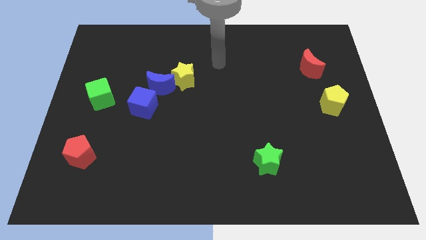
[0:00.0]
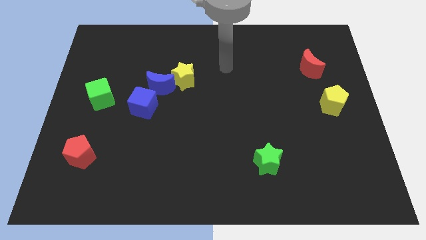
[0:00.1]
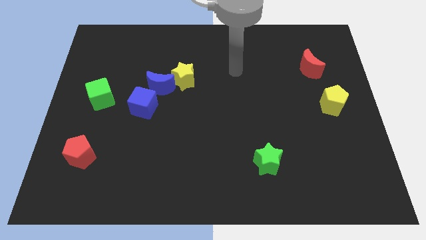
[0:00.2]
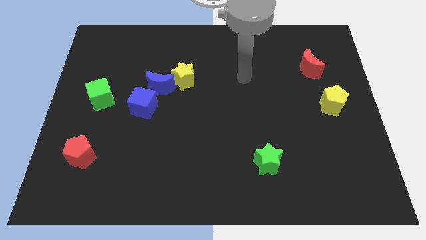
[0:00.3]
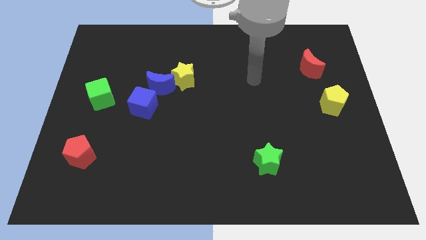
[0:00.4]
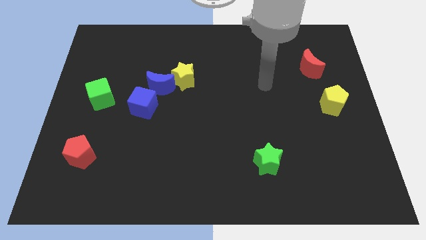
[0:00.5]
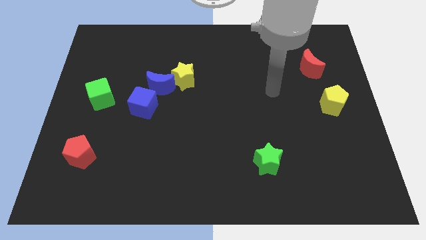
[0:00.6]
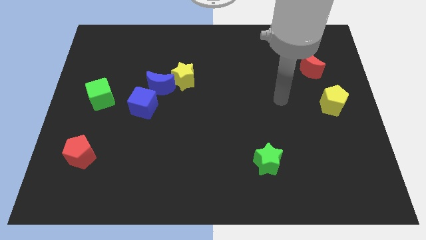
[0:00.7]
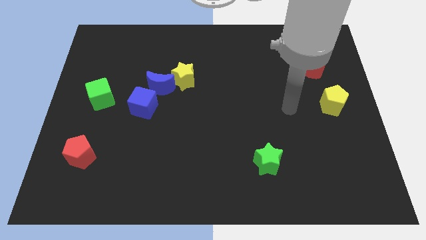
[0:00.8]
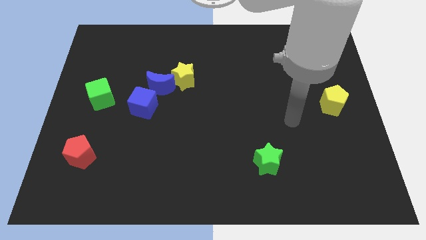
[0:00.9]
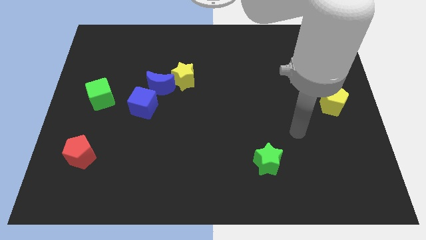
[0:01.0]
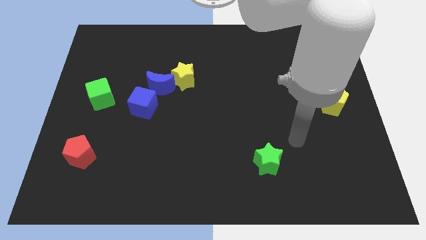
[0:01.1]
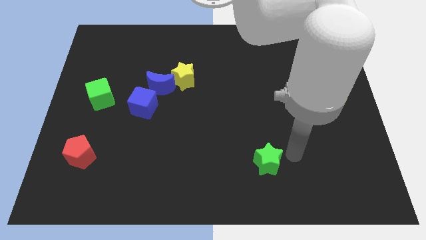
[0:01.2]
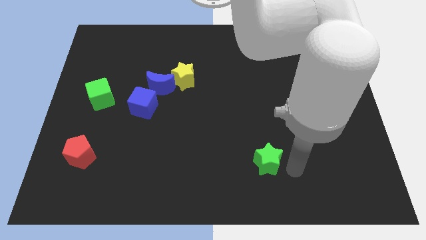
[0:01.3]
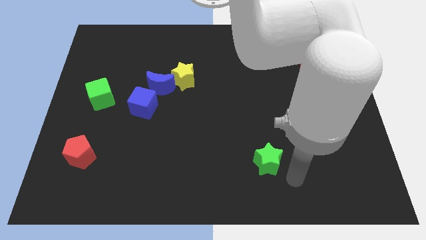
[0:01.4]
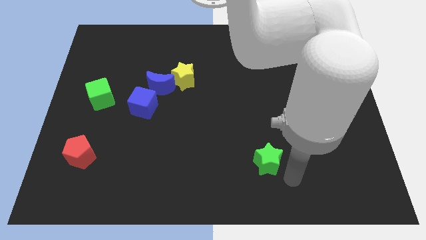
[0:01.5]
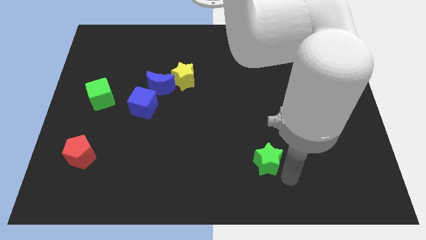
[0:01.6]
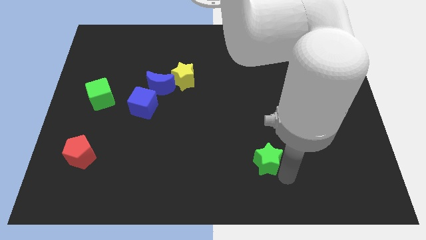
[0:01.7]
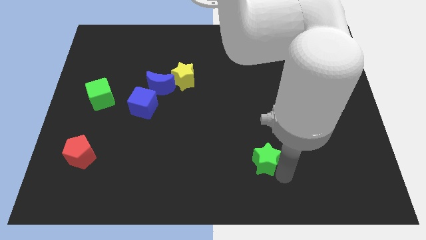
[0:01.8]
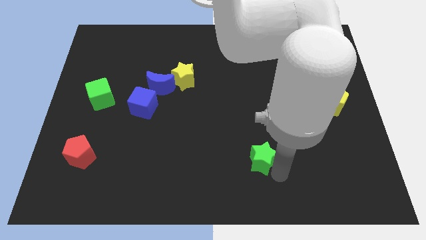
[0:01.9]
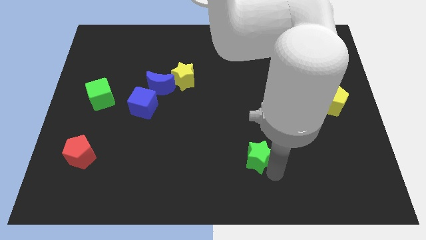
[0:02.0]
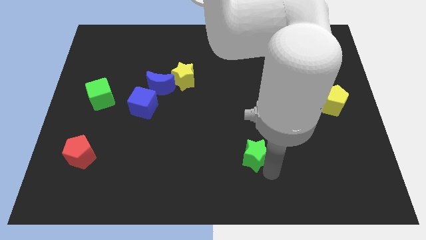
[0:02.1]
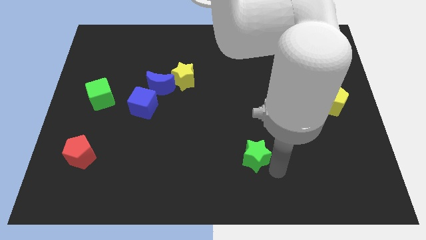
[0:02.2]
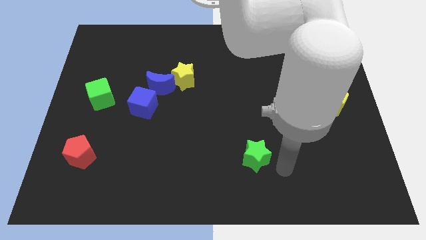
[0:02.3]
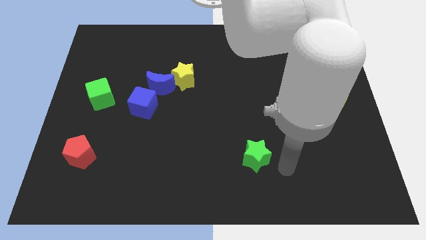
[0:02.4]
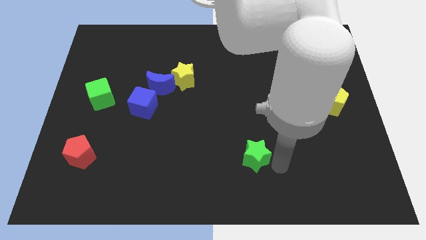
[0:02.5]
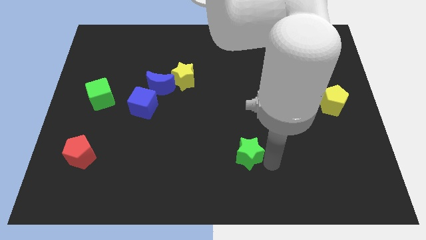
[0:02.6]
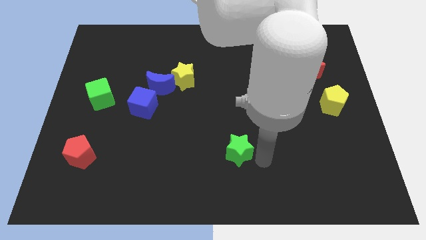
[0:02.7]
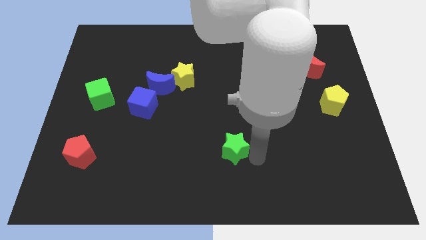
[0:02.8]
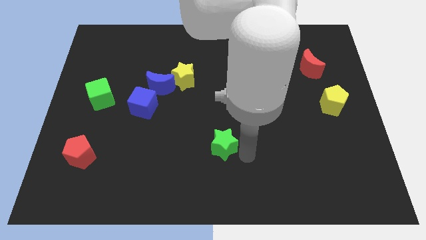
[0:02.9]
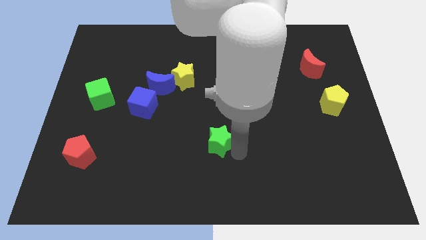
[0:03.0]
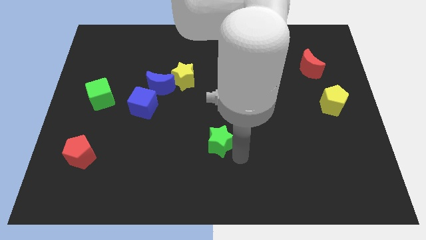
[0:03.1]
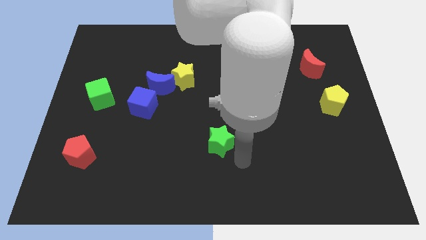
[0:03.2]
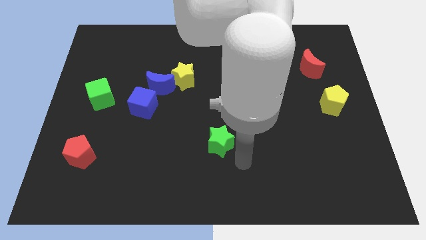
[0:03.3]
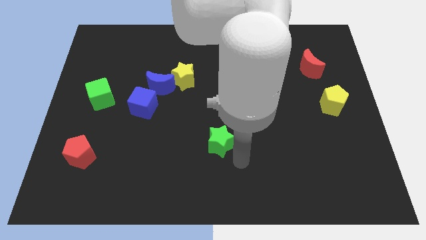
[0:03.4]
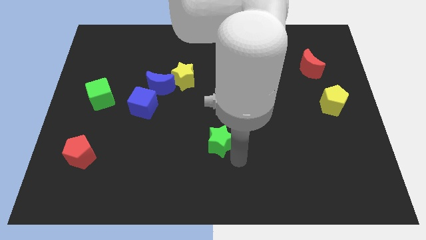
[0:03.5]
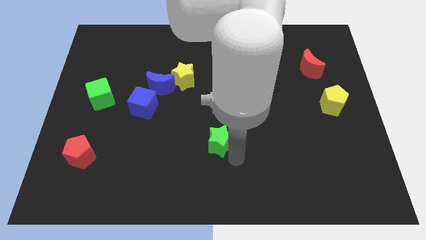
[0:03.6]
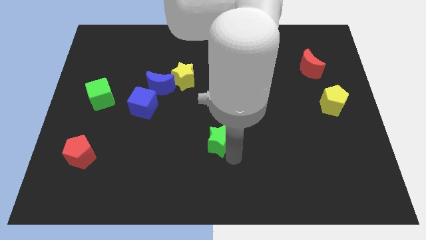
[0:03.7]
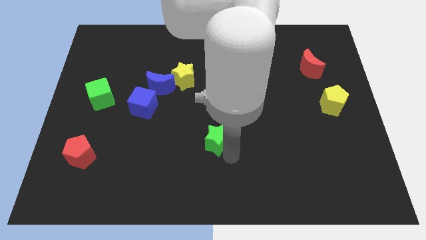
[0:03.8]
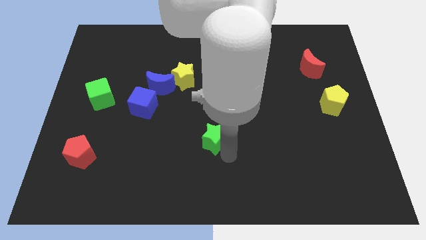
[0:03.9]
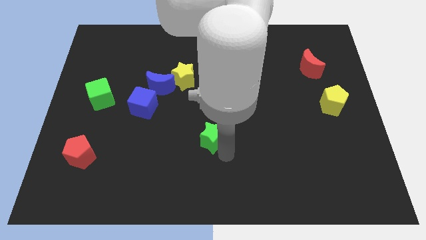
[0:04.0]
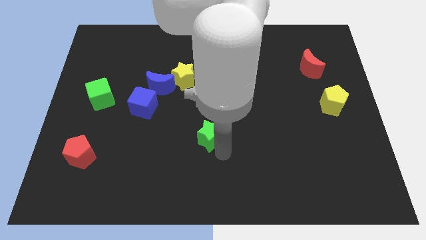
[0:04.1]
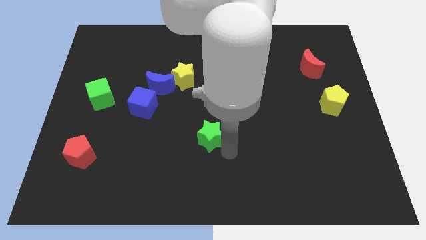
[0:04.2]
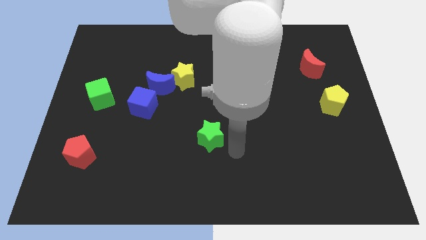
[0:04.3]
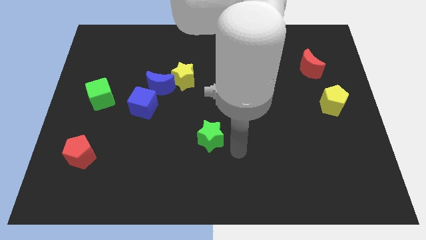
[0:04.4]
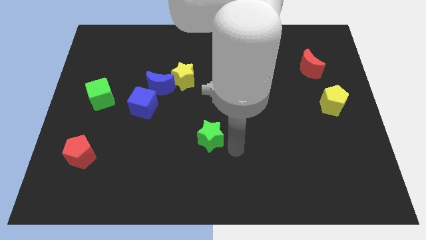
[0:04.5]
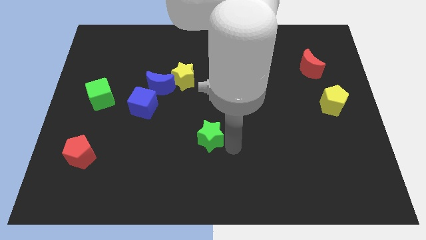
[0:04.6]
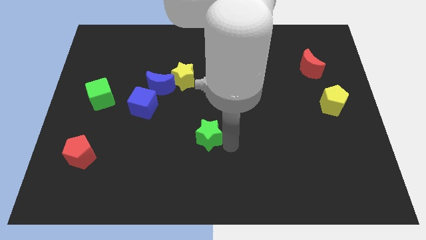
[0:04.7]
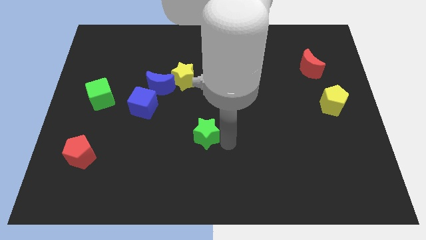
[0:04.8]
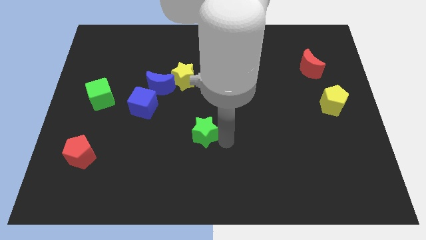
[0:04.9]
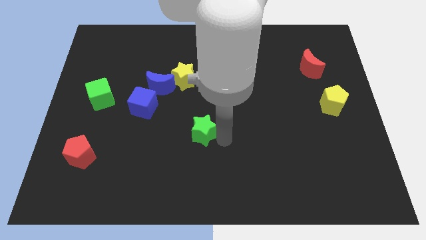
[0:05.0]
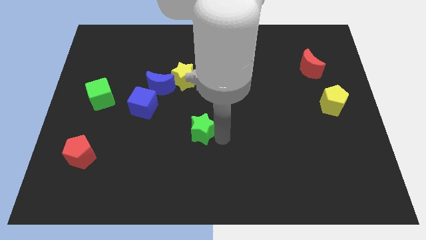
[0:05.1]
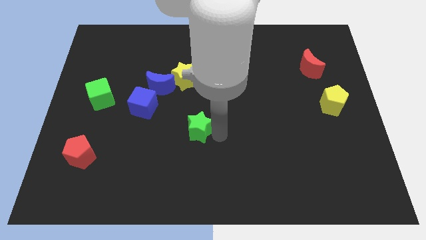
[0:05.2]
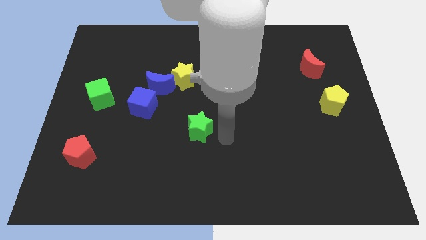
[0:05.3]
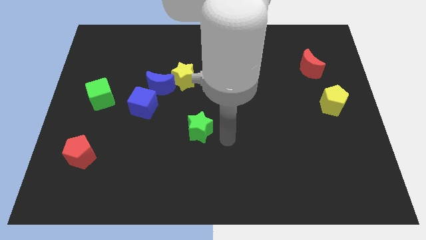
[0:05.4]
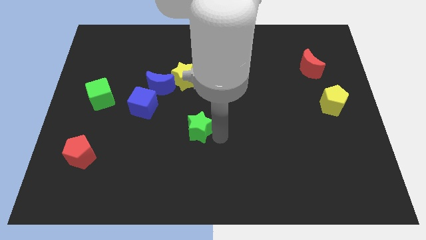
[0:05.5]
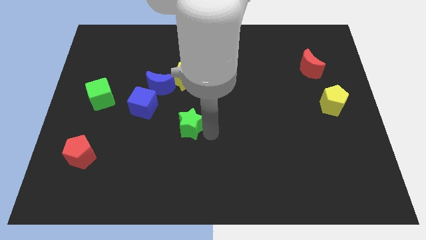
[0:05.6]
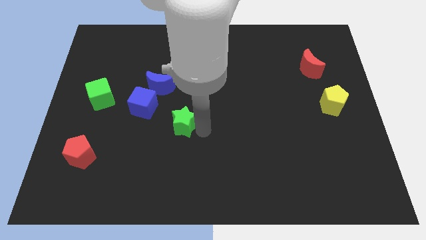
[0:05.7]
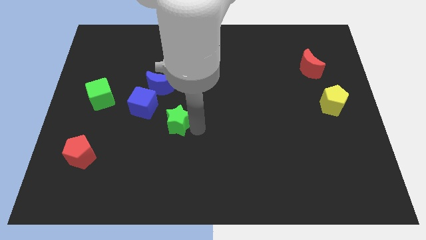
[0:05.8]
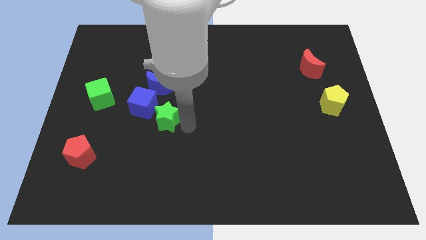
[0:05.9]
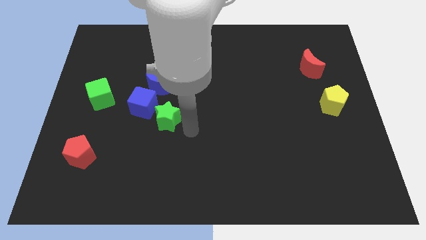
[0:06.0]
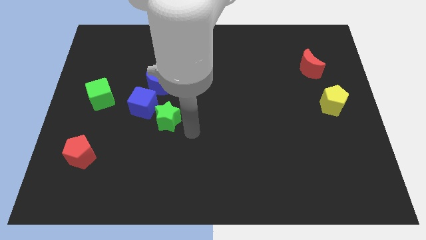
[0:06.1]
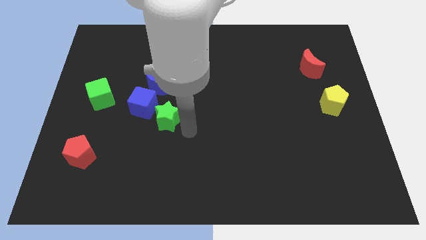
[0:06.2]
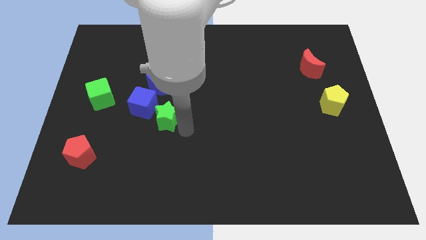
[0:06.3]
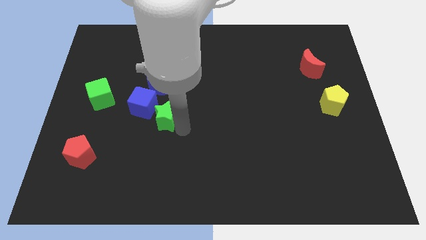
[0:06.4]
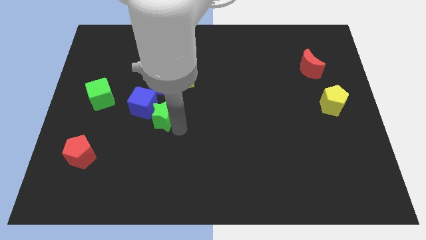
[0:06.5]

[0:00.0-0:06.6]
put the green star next to the blue cube

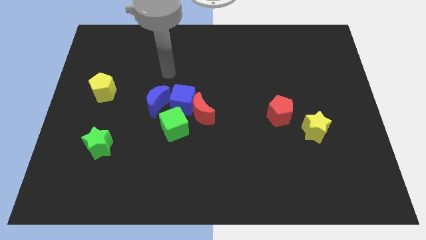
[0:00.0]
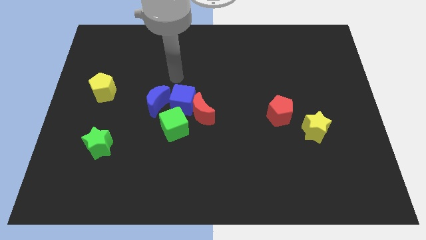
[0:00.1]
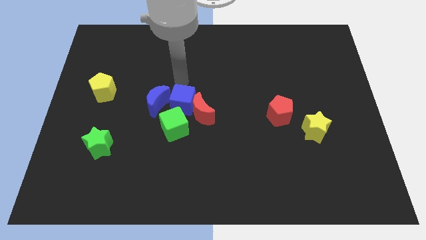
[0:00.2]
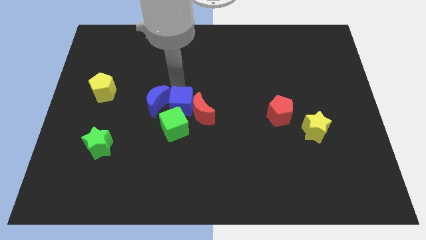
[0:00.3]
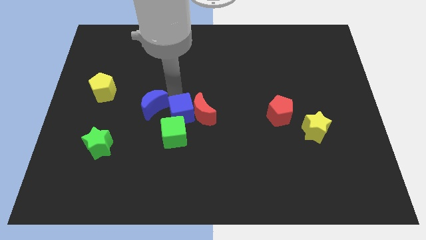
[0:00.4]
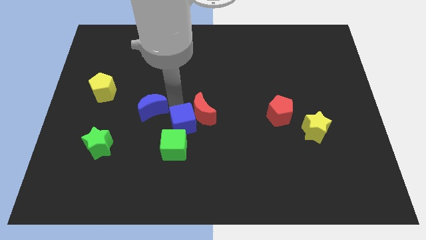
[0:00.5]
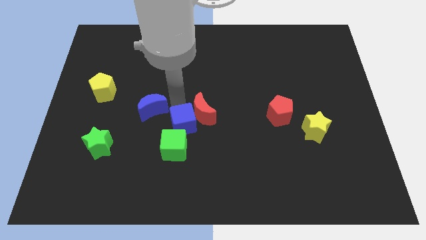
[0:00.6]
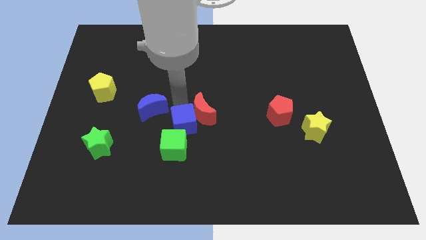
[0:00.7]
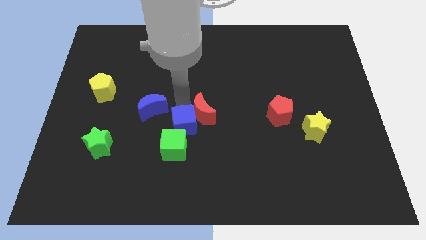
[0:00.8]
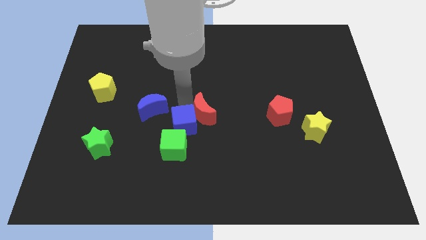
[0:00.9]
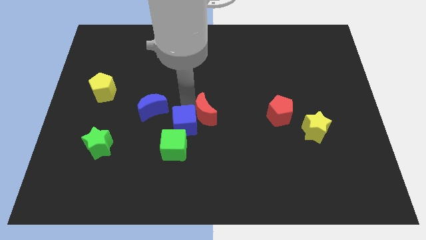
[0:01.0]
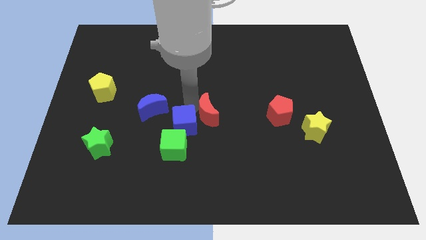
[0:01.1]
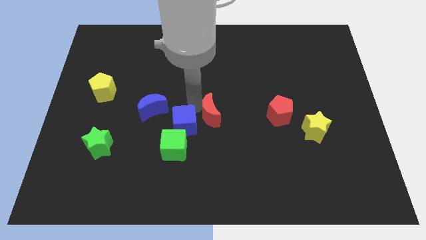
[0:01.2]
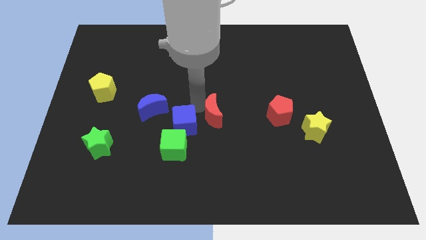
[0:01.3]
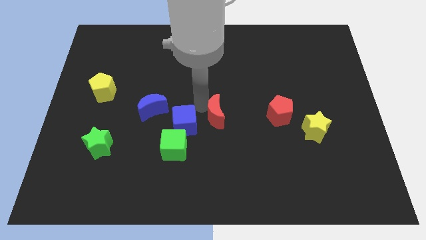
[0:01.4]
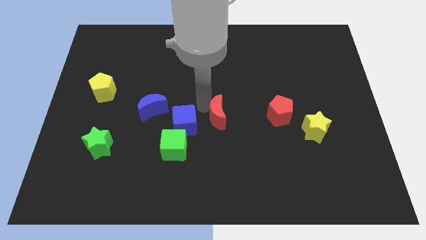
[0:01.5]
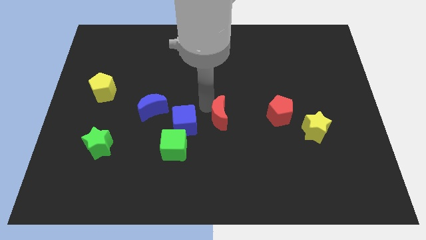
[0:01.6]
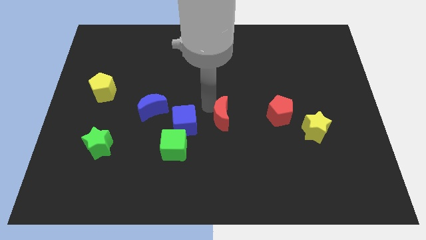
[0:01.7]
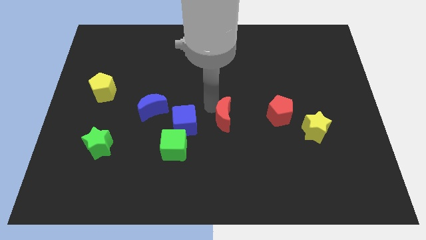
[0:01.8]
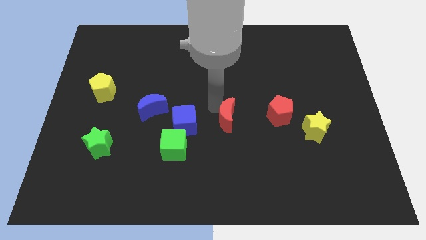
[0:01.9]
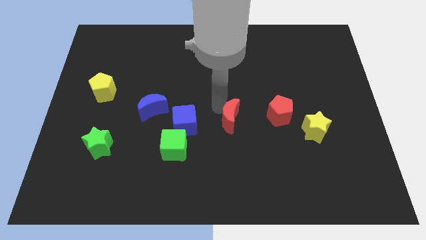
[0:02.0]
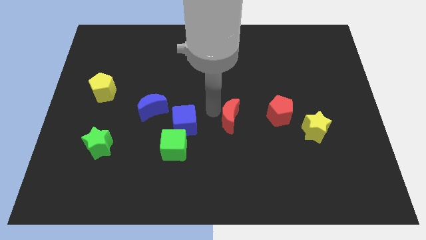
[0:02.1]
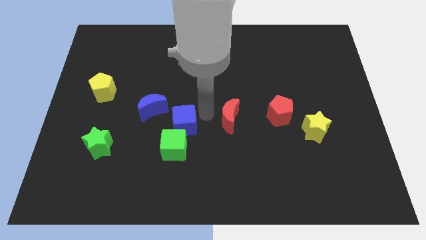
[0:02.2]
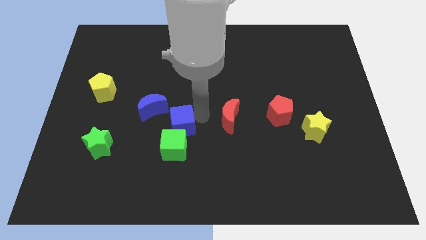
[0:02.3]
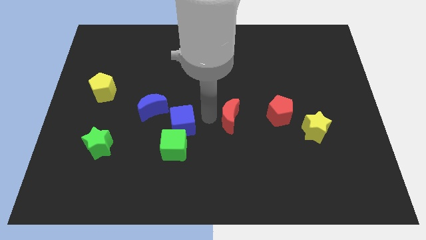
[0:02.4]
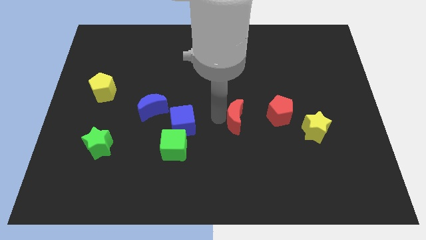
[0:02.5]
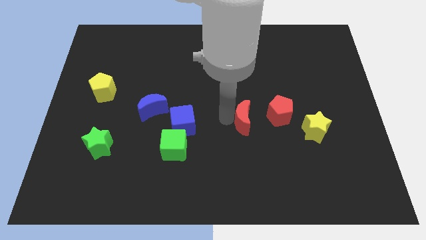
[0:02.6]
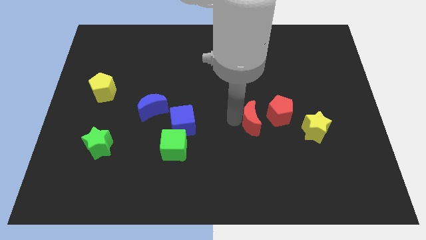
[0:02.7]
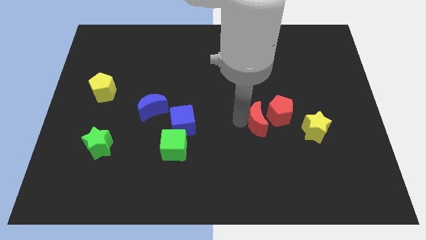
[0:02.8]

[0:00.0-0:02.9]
slide the red moon next to the red pentagon
